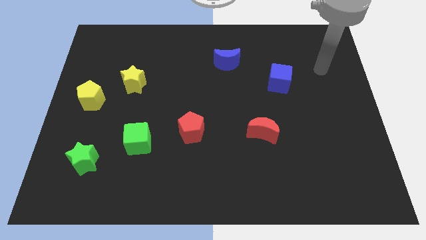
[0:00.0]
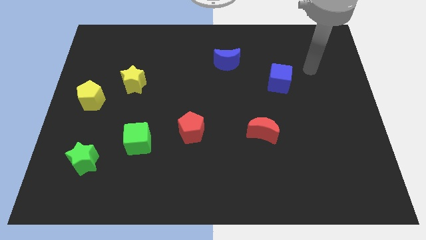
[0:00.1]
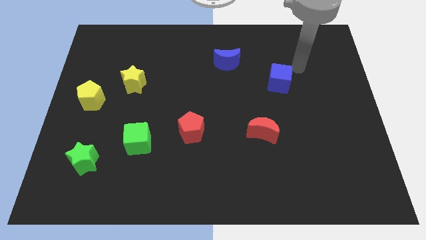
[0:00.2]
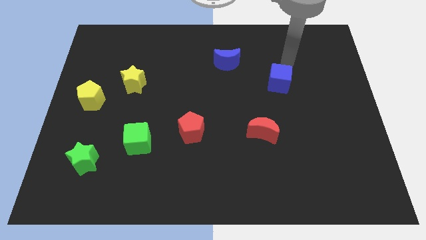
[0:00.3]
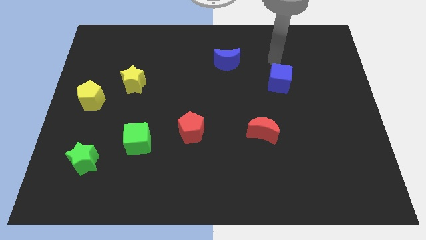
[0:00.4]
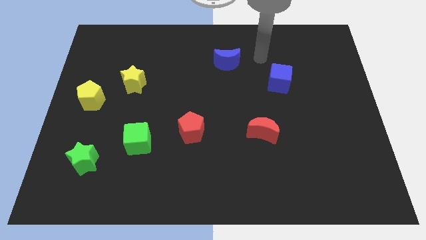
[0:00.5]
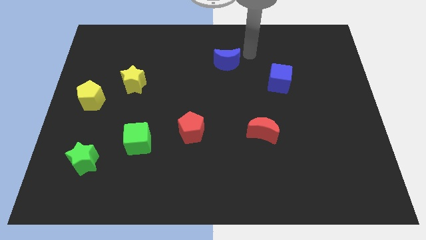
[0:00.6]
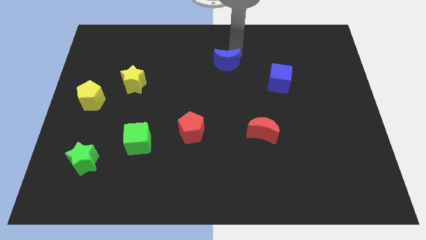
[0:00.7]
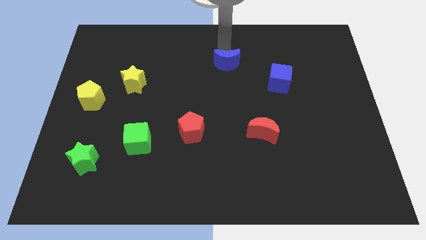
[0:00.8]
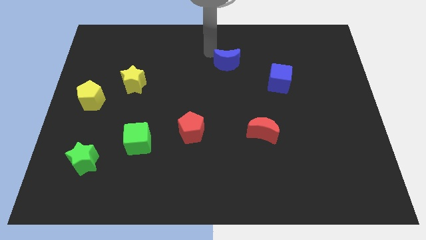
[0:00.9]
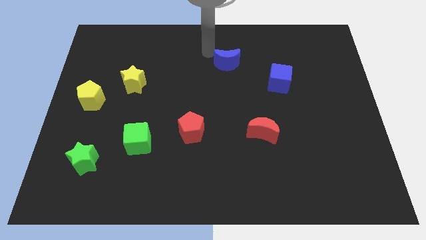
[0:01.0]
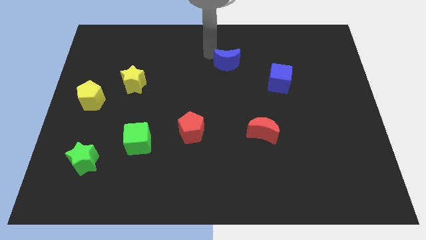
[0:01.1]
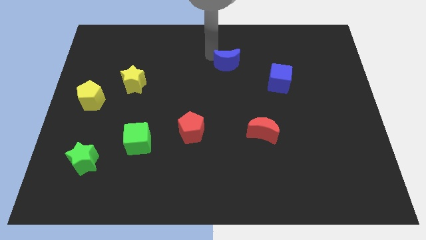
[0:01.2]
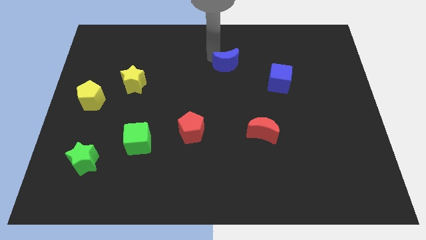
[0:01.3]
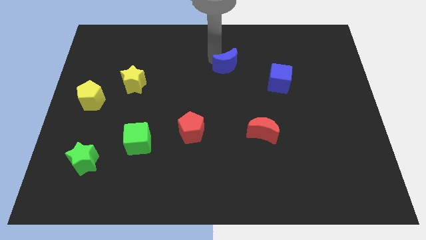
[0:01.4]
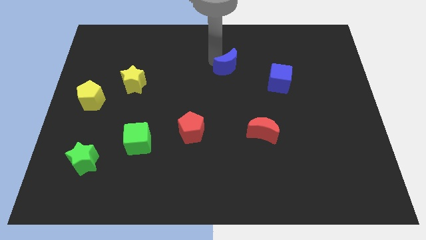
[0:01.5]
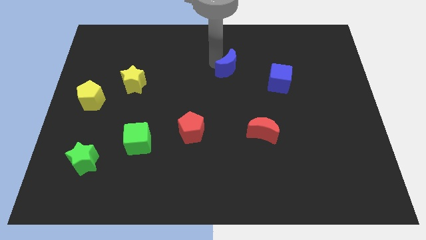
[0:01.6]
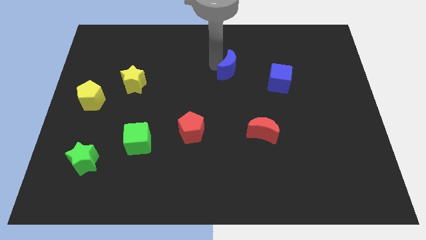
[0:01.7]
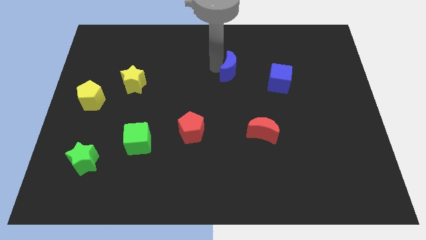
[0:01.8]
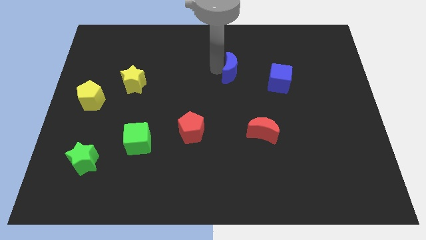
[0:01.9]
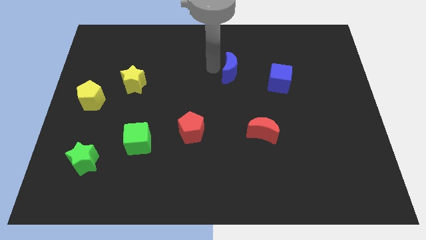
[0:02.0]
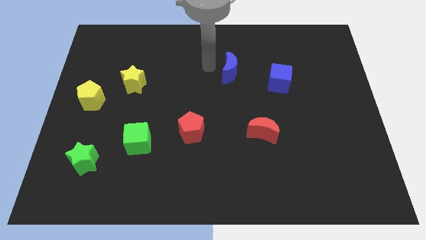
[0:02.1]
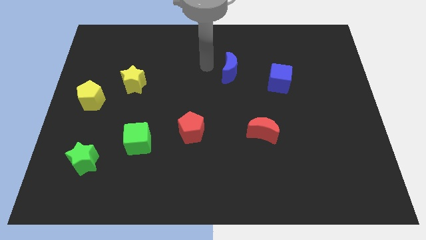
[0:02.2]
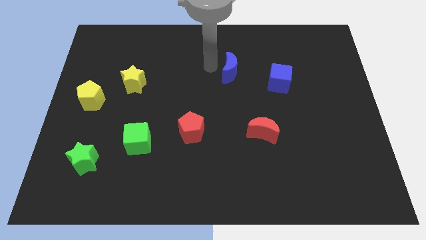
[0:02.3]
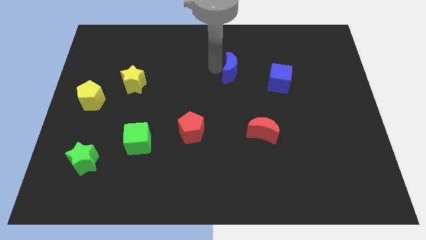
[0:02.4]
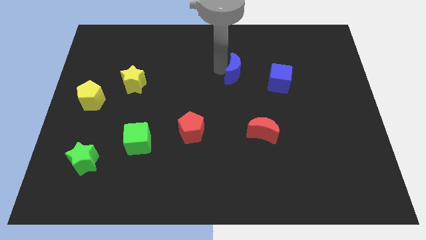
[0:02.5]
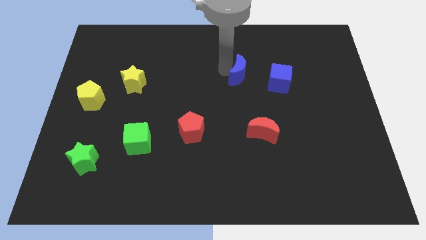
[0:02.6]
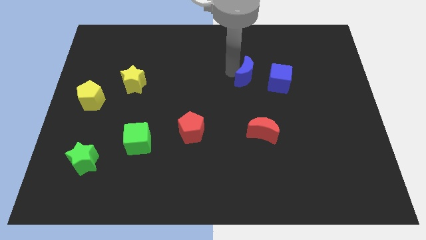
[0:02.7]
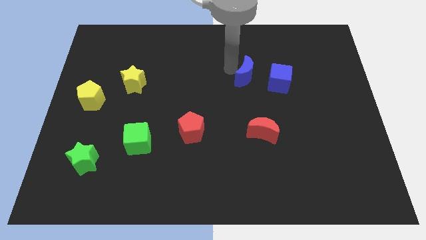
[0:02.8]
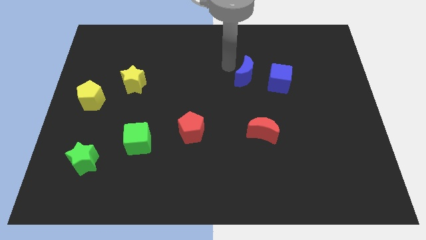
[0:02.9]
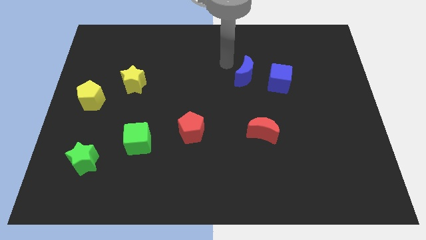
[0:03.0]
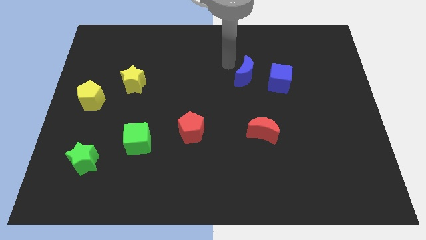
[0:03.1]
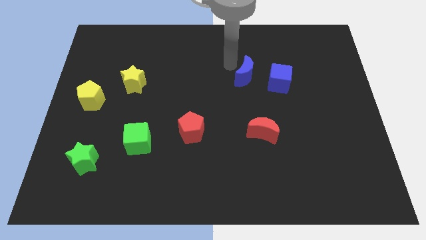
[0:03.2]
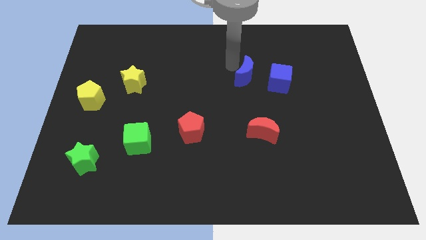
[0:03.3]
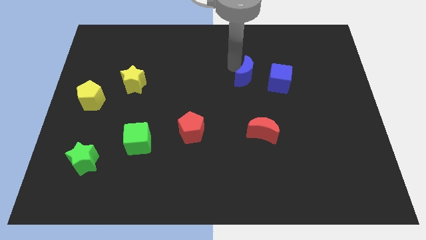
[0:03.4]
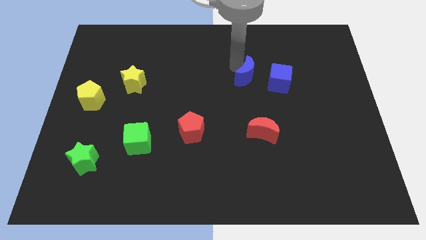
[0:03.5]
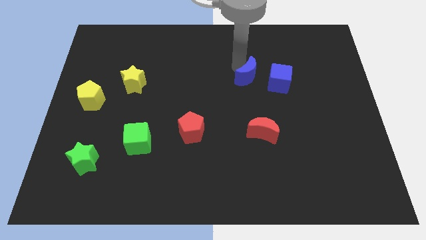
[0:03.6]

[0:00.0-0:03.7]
move the blue moon slightly downwards and right diagonally

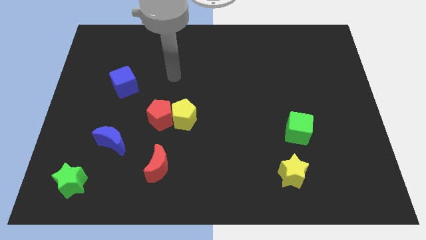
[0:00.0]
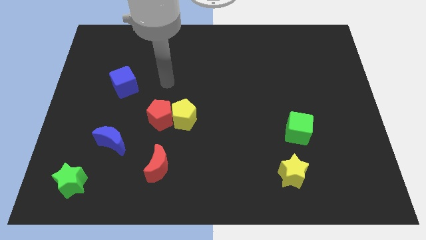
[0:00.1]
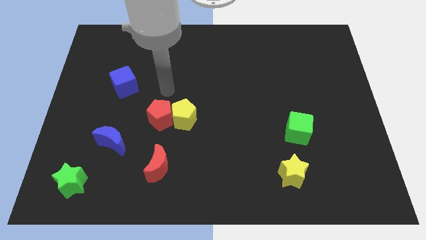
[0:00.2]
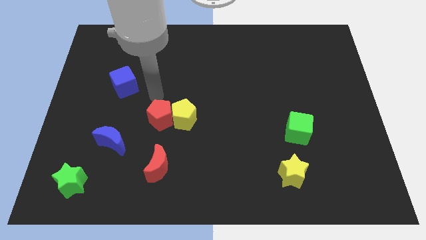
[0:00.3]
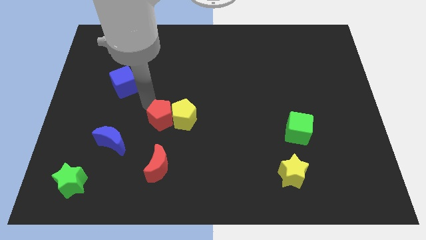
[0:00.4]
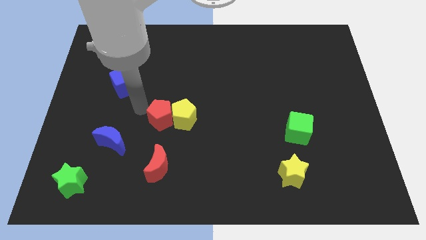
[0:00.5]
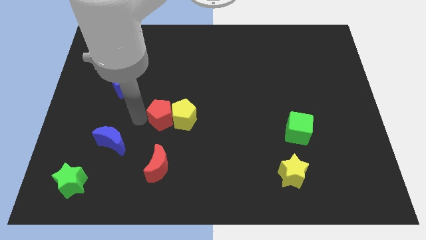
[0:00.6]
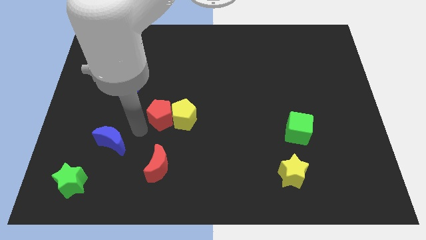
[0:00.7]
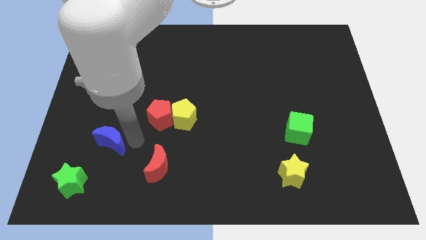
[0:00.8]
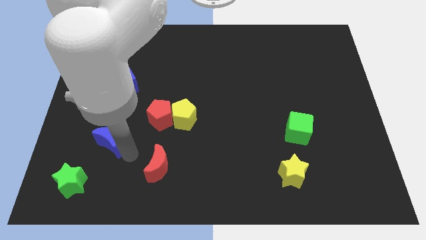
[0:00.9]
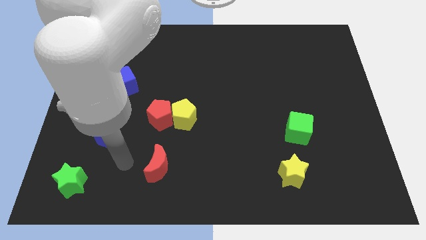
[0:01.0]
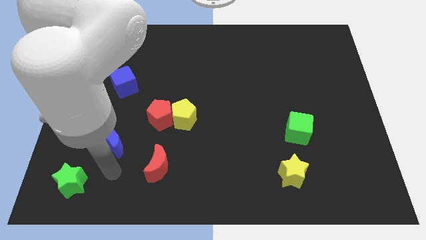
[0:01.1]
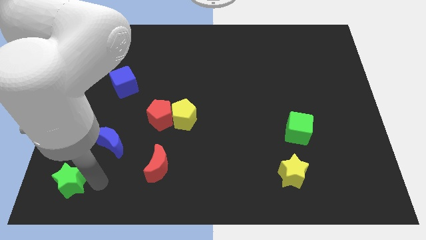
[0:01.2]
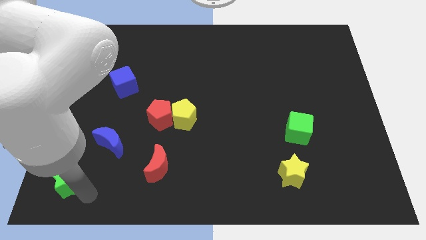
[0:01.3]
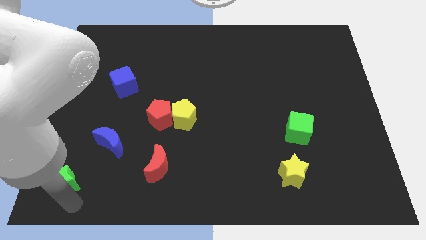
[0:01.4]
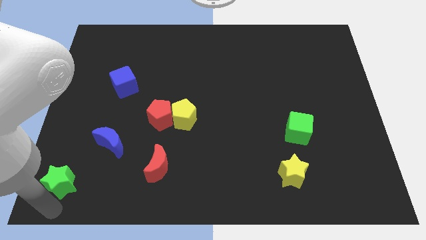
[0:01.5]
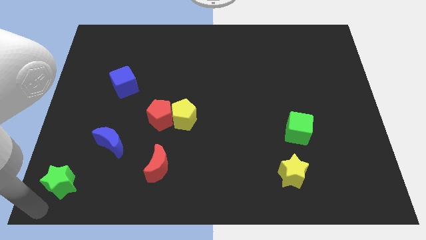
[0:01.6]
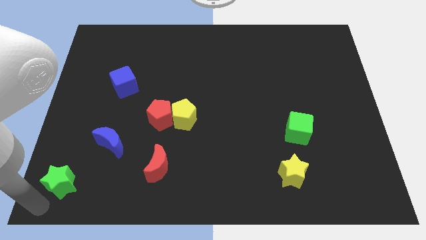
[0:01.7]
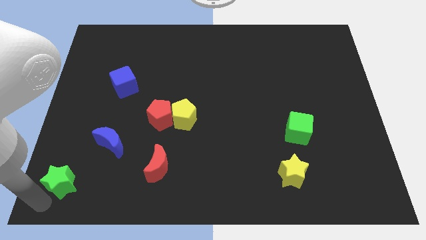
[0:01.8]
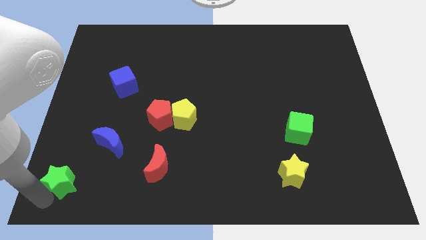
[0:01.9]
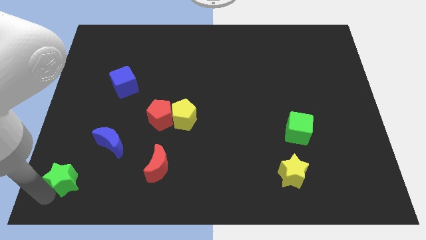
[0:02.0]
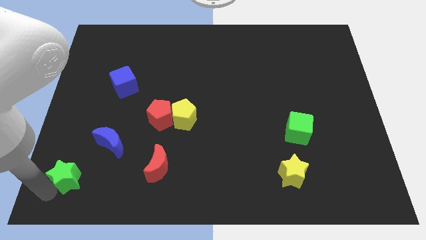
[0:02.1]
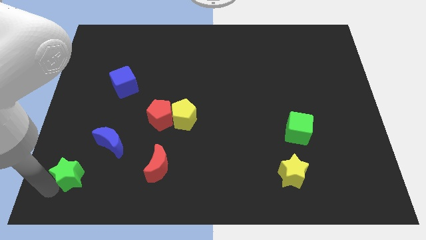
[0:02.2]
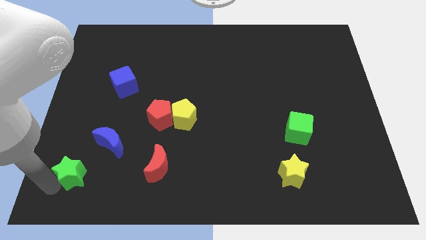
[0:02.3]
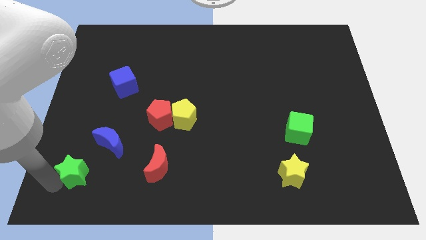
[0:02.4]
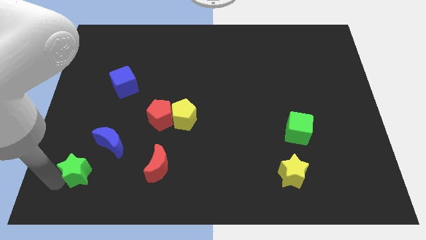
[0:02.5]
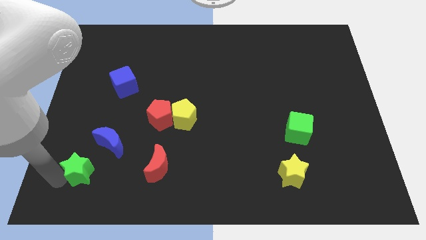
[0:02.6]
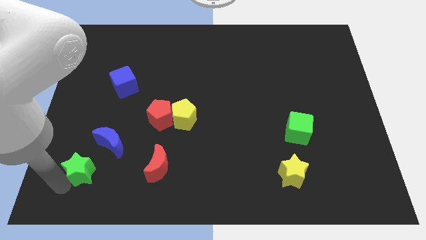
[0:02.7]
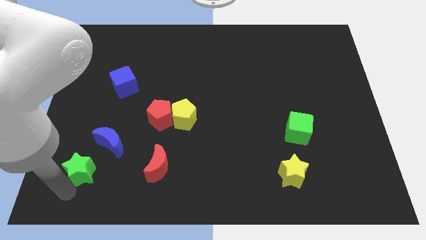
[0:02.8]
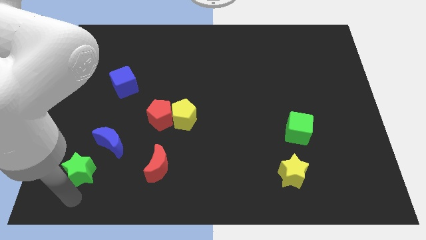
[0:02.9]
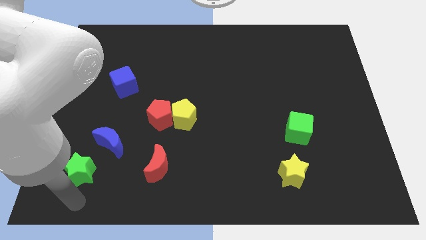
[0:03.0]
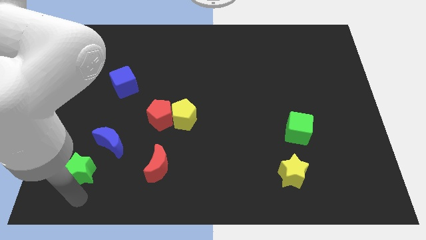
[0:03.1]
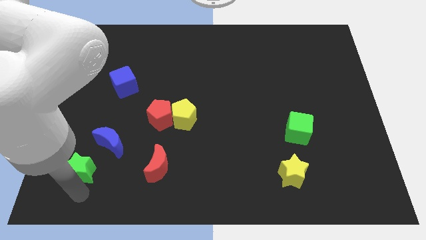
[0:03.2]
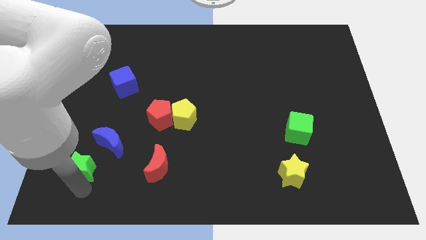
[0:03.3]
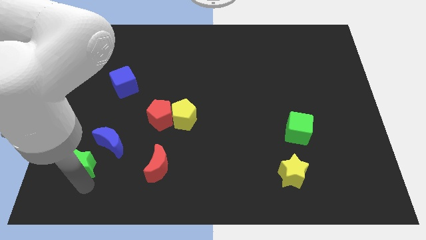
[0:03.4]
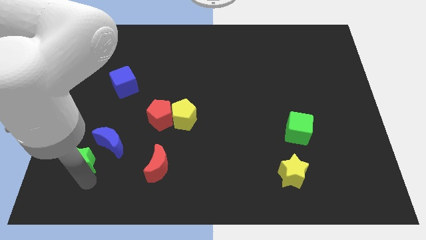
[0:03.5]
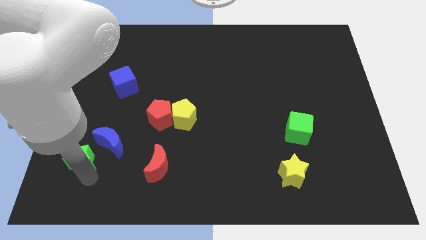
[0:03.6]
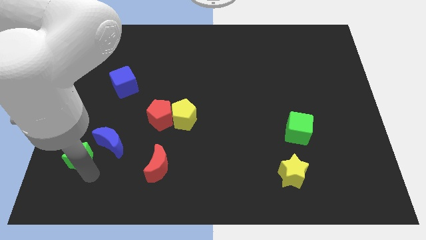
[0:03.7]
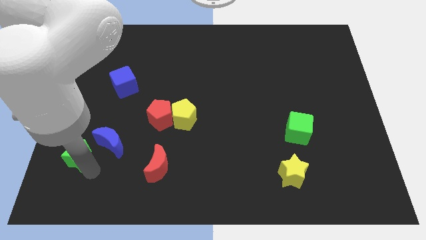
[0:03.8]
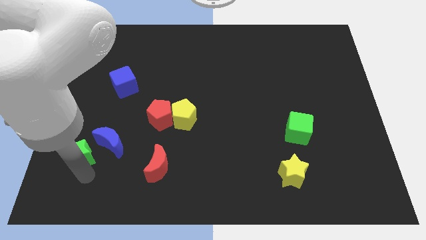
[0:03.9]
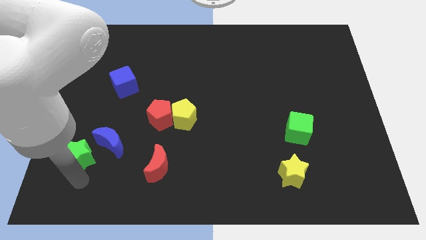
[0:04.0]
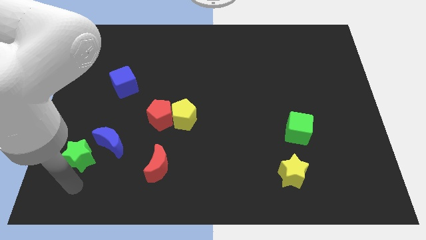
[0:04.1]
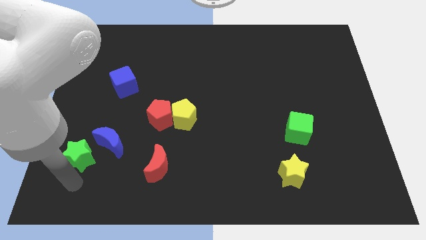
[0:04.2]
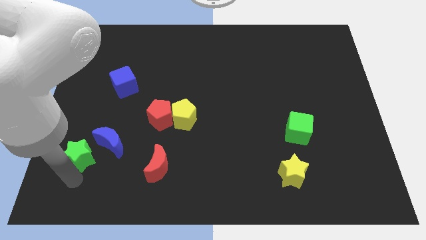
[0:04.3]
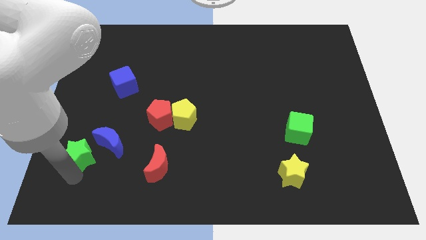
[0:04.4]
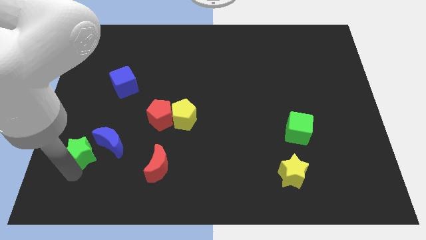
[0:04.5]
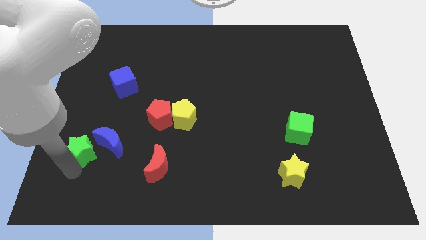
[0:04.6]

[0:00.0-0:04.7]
slightly push the green star up
